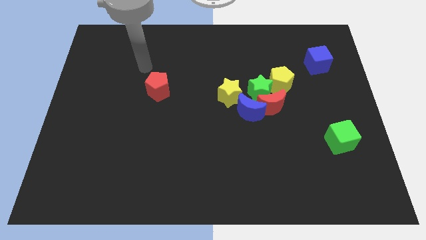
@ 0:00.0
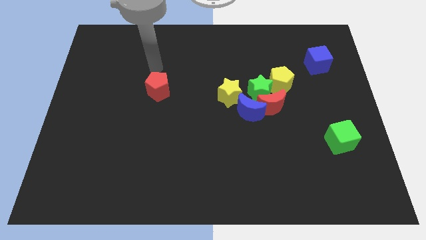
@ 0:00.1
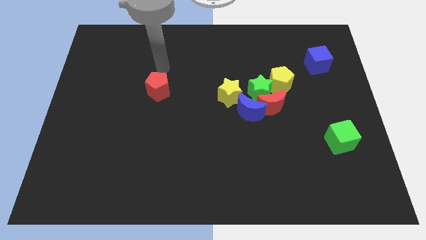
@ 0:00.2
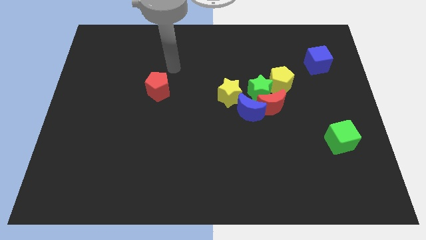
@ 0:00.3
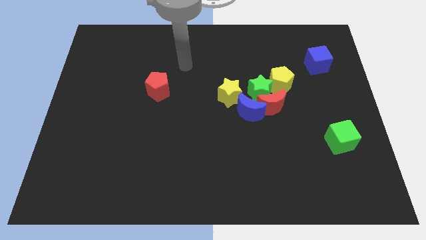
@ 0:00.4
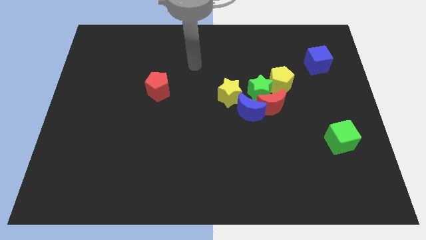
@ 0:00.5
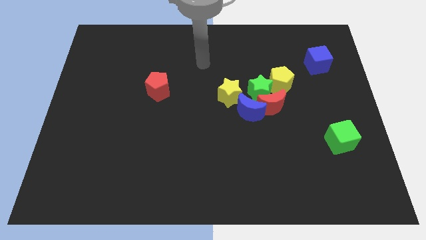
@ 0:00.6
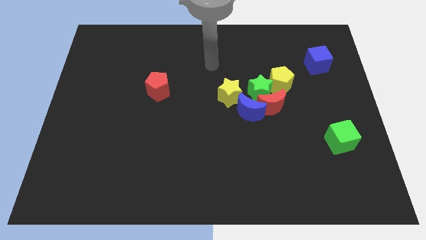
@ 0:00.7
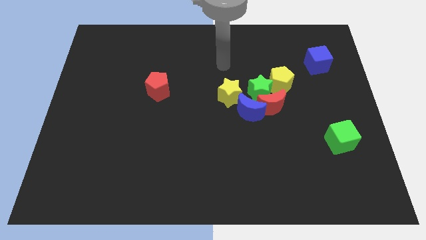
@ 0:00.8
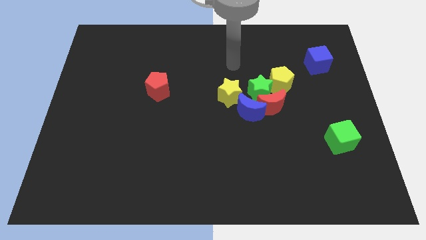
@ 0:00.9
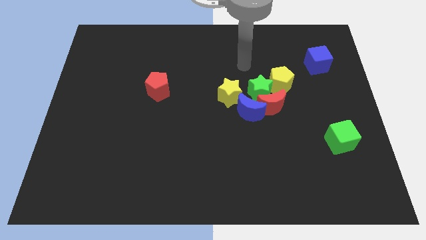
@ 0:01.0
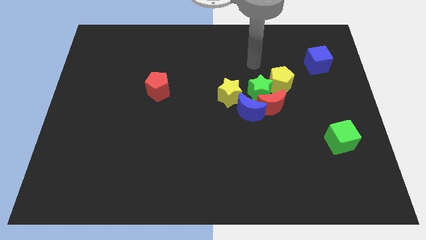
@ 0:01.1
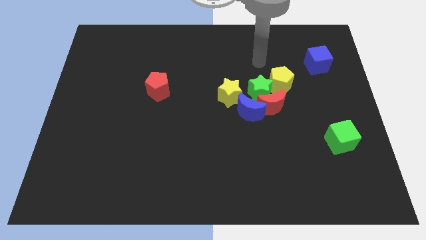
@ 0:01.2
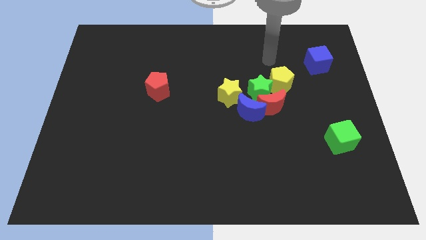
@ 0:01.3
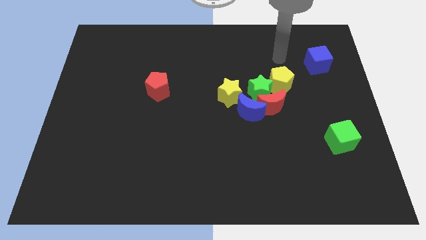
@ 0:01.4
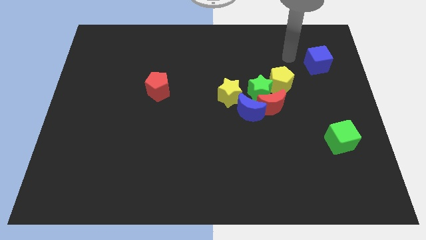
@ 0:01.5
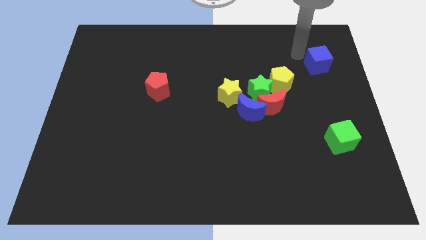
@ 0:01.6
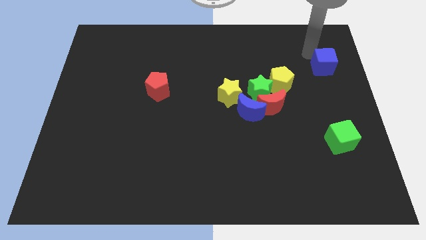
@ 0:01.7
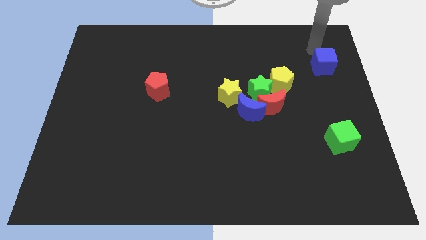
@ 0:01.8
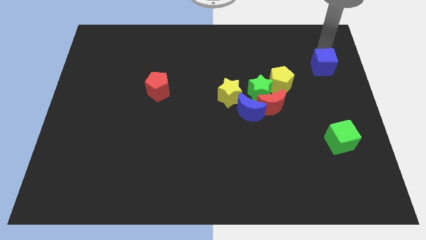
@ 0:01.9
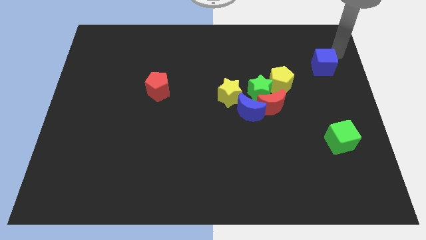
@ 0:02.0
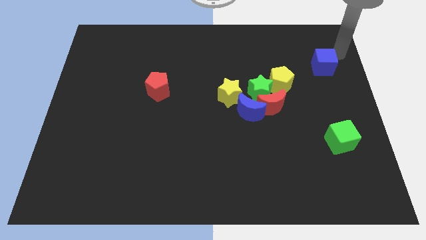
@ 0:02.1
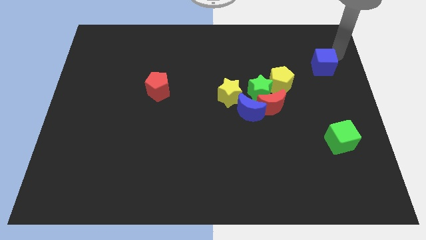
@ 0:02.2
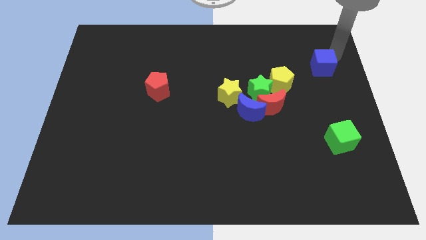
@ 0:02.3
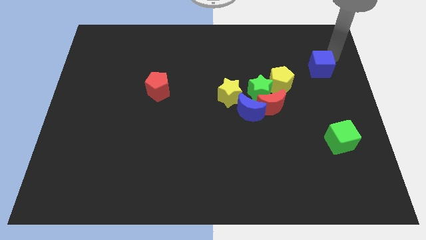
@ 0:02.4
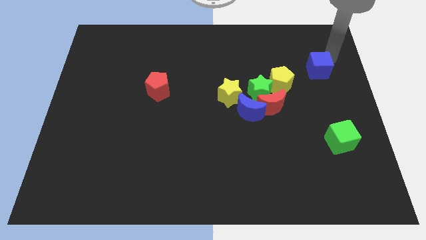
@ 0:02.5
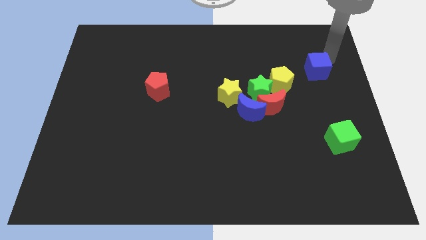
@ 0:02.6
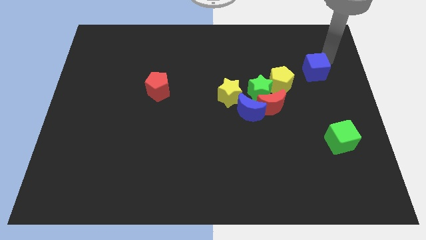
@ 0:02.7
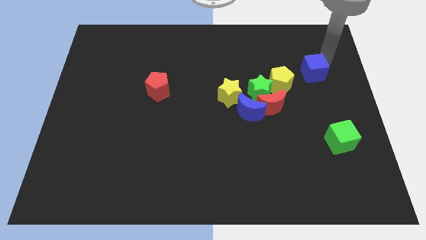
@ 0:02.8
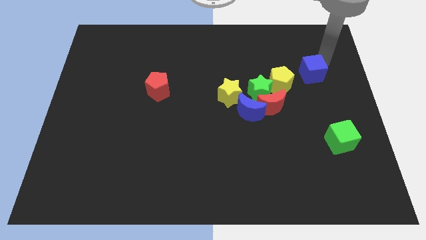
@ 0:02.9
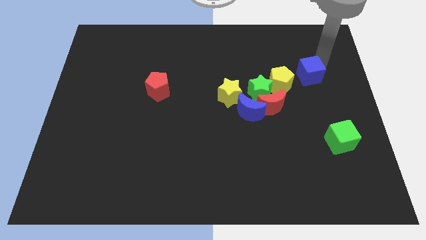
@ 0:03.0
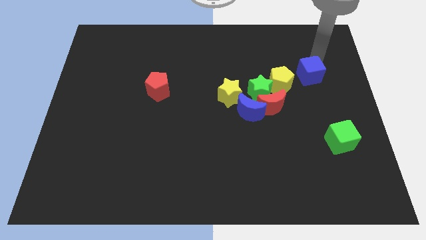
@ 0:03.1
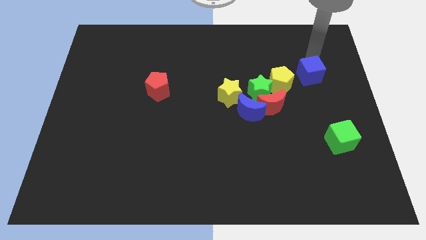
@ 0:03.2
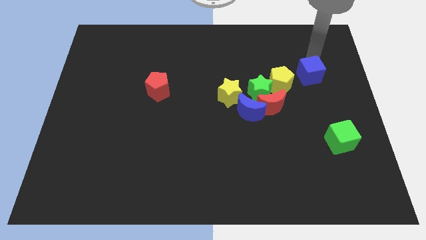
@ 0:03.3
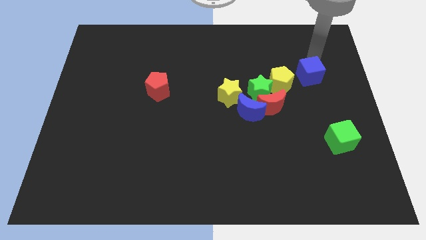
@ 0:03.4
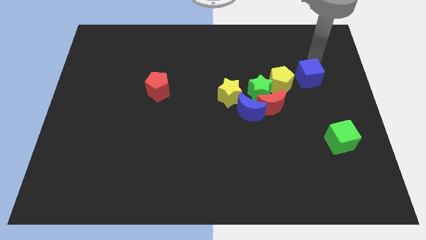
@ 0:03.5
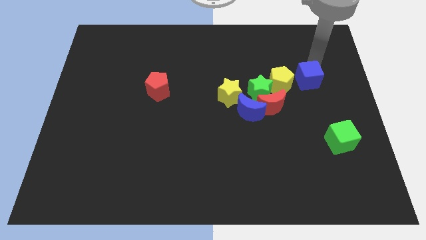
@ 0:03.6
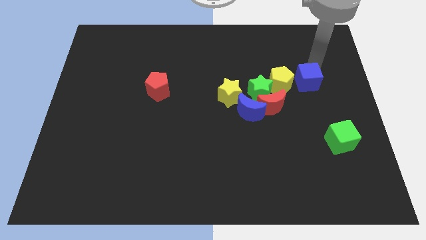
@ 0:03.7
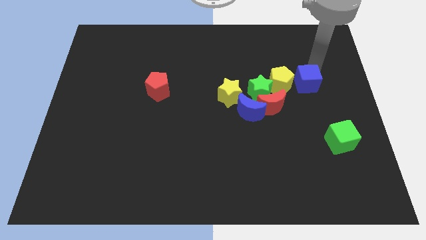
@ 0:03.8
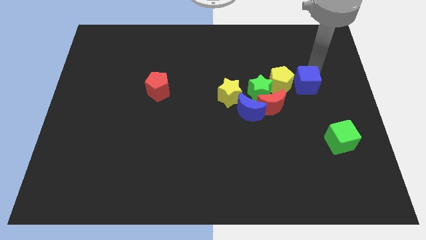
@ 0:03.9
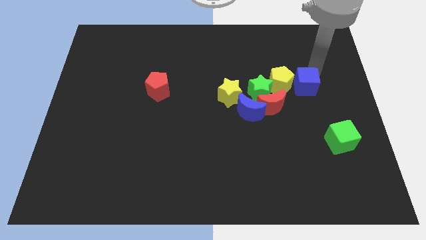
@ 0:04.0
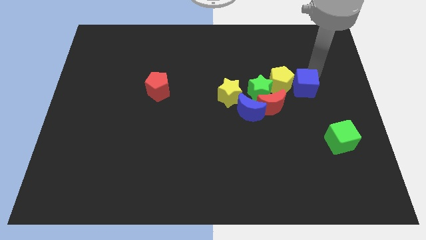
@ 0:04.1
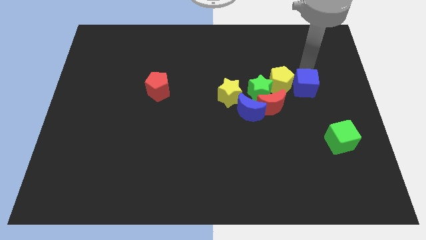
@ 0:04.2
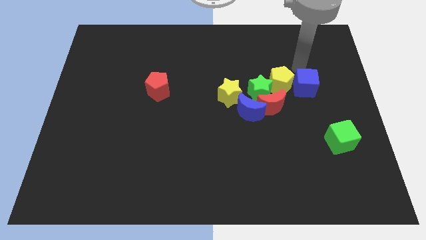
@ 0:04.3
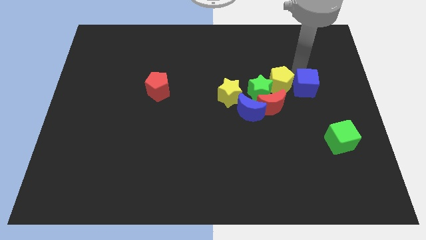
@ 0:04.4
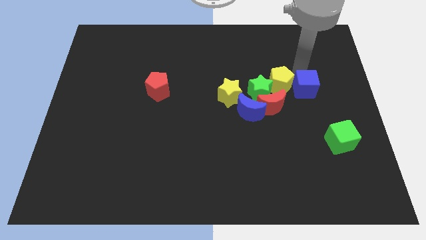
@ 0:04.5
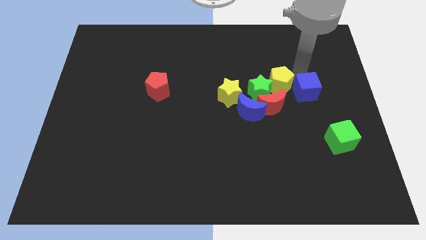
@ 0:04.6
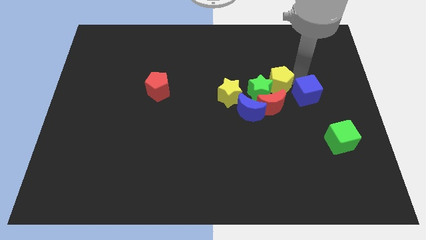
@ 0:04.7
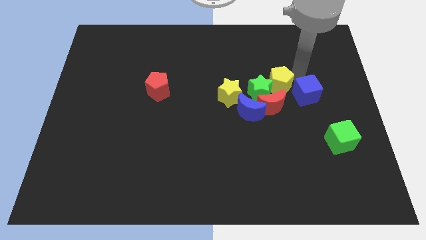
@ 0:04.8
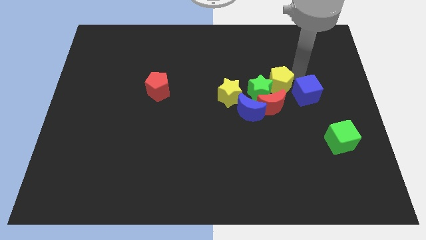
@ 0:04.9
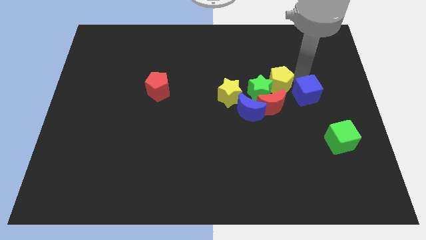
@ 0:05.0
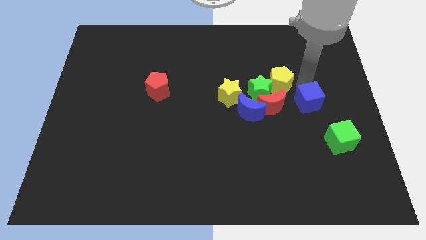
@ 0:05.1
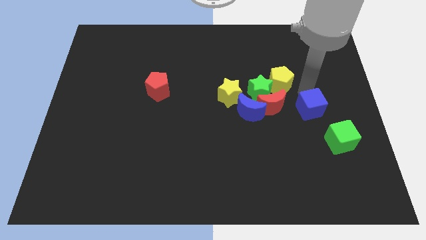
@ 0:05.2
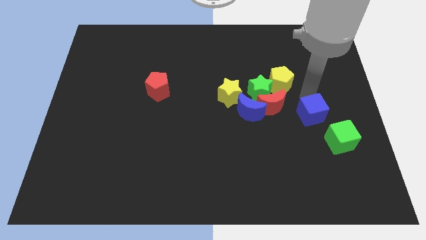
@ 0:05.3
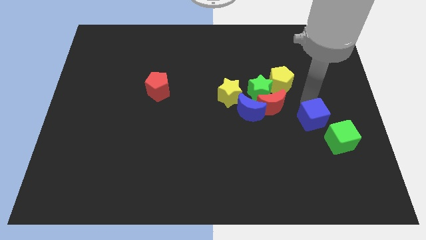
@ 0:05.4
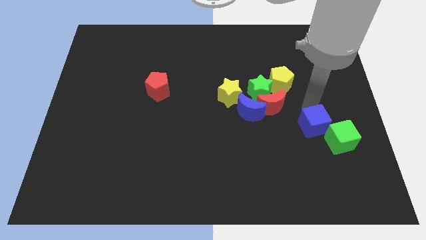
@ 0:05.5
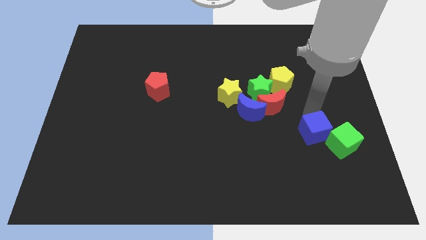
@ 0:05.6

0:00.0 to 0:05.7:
slide the blue cube downwards

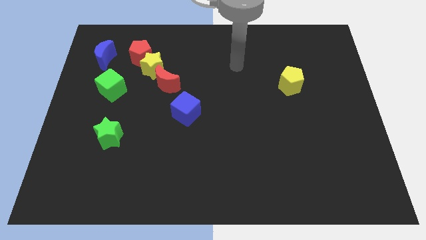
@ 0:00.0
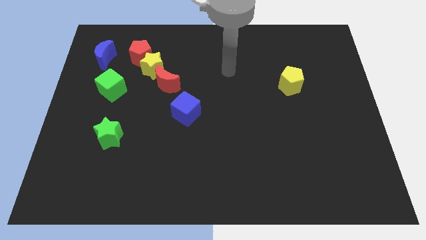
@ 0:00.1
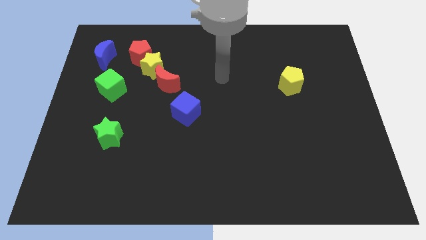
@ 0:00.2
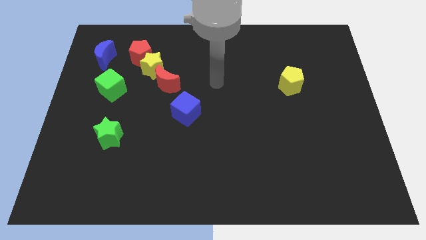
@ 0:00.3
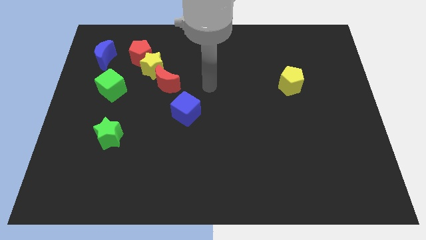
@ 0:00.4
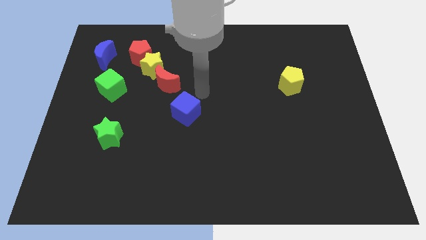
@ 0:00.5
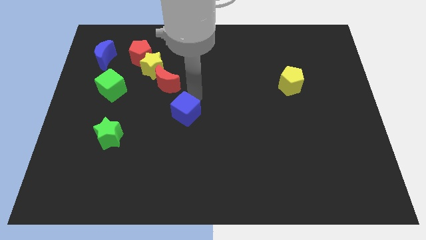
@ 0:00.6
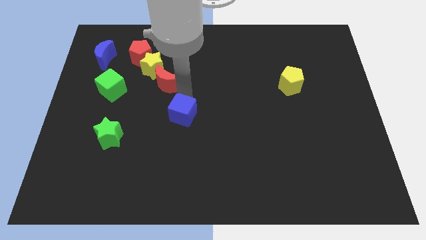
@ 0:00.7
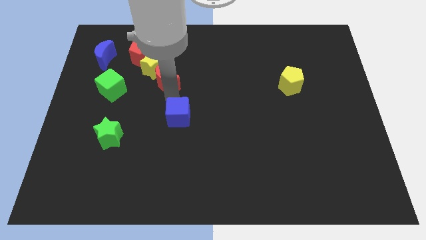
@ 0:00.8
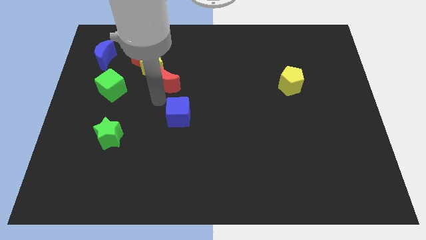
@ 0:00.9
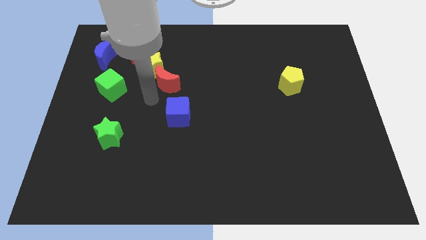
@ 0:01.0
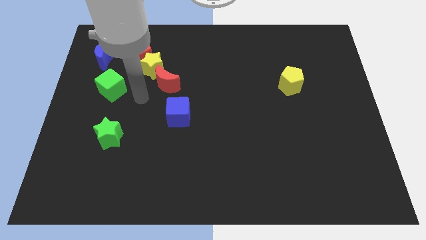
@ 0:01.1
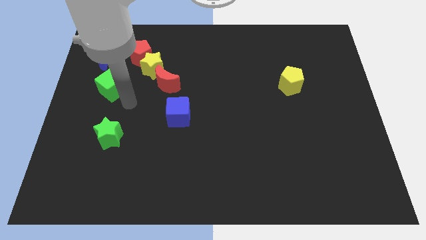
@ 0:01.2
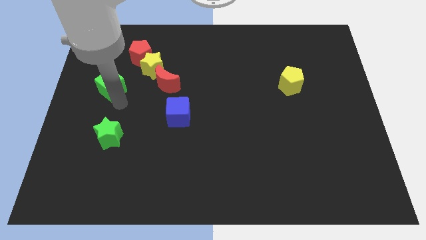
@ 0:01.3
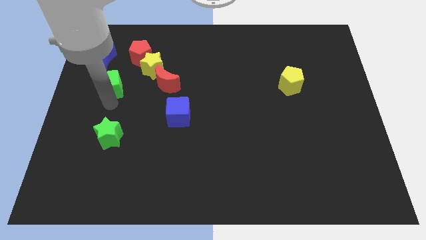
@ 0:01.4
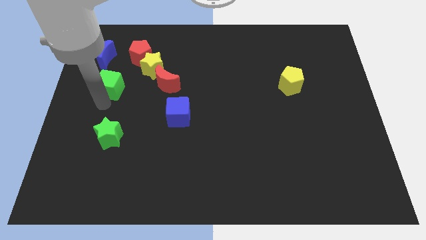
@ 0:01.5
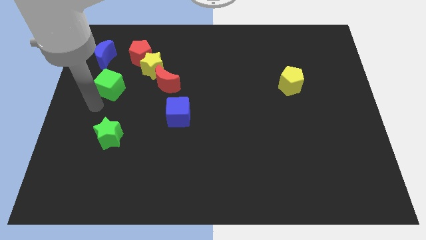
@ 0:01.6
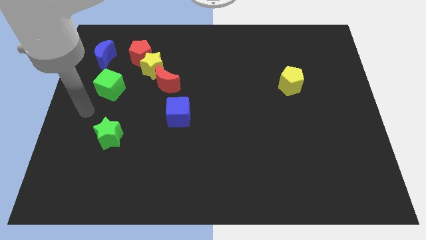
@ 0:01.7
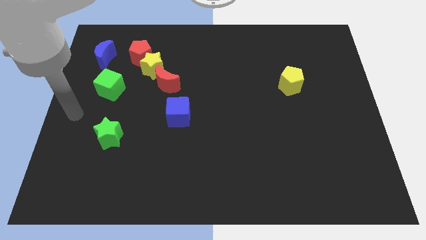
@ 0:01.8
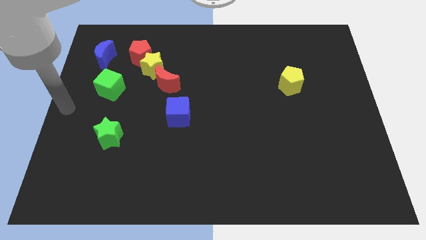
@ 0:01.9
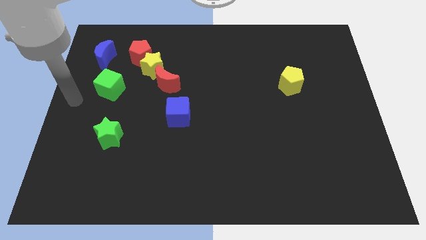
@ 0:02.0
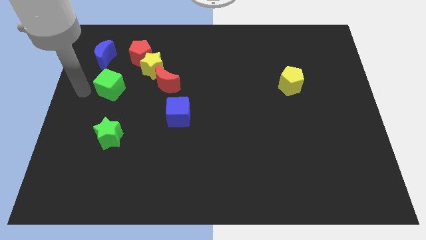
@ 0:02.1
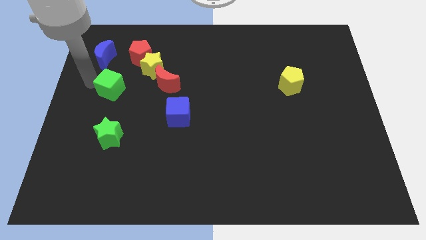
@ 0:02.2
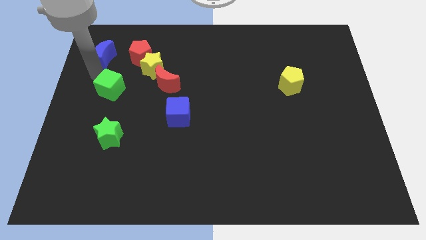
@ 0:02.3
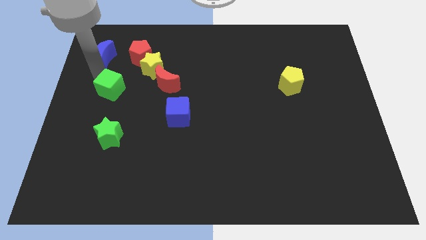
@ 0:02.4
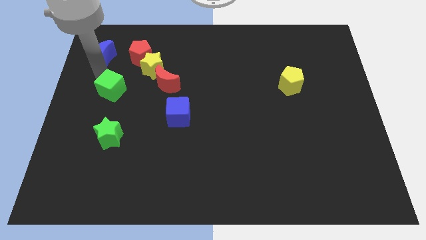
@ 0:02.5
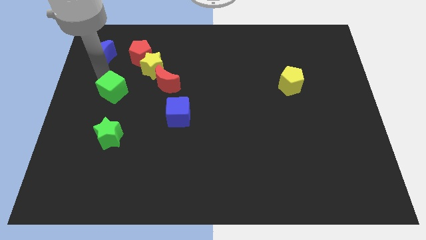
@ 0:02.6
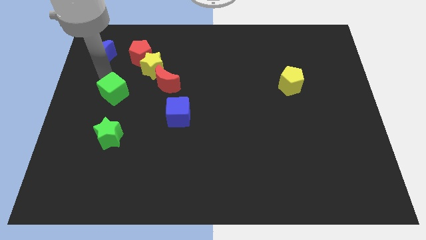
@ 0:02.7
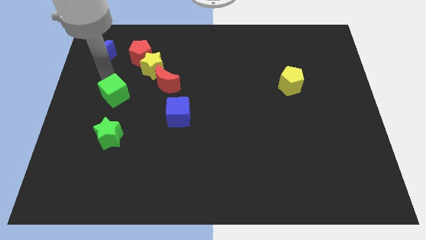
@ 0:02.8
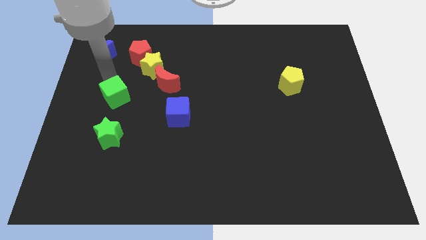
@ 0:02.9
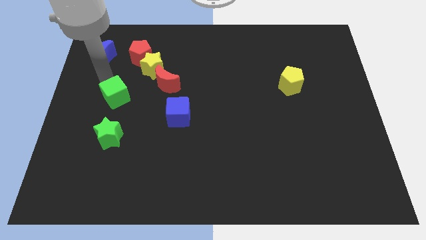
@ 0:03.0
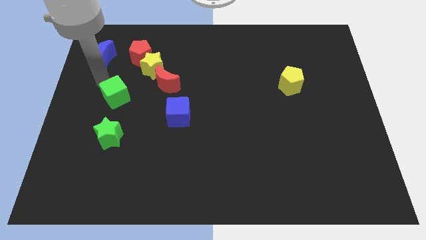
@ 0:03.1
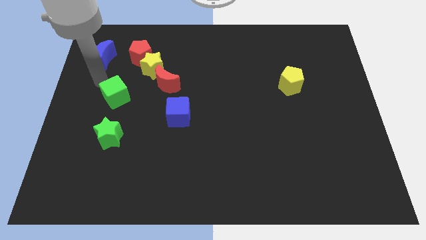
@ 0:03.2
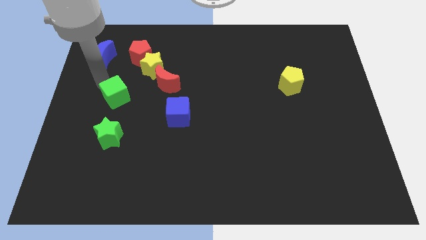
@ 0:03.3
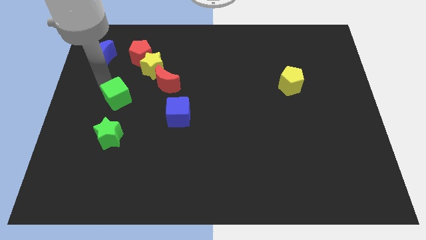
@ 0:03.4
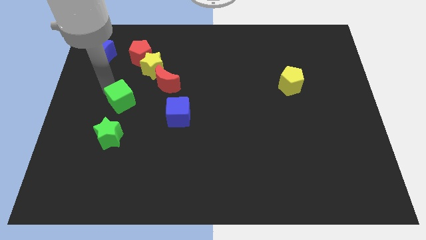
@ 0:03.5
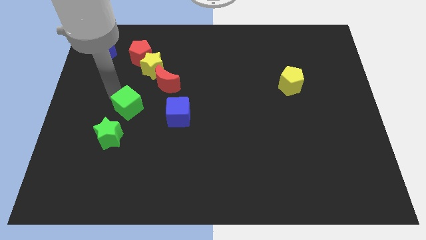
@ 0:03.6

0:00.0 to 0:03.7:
slide the green cube slightly down and right diagonally
